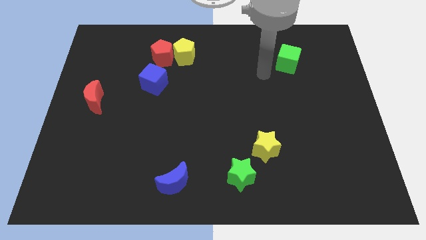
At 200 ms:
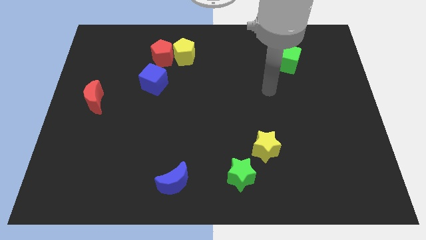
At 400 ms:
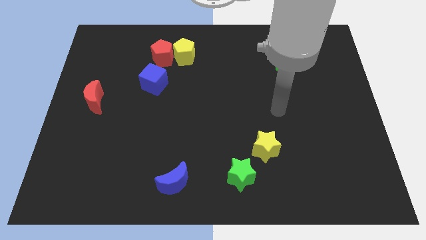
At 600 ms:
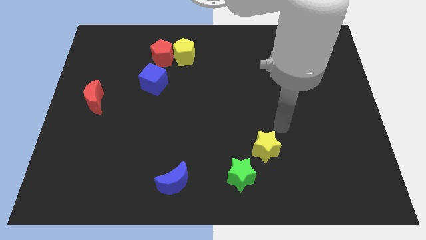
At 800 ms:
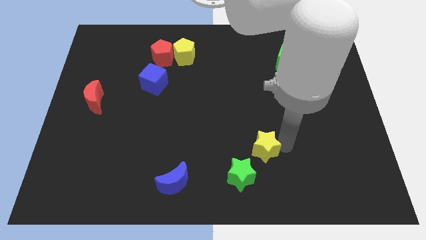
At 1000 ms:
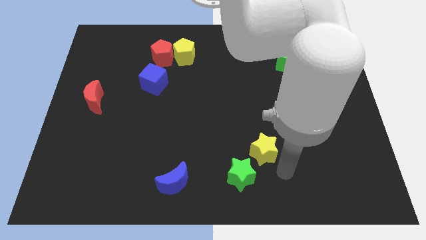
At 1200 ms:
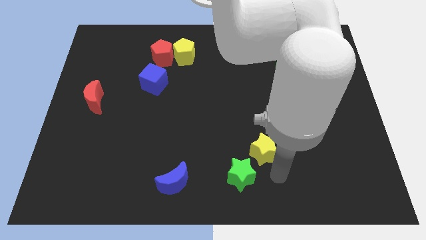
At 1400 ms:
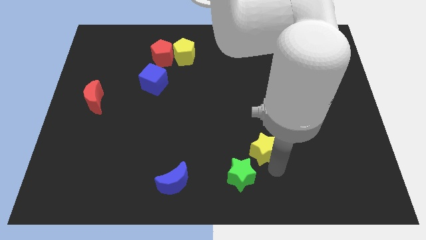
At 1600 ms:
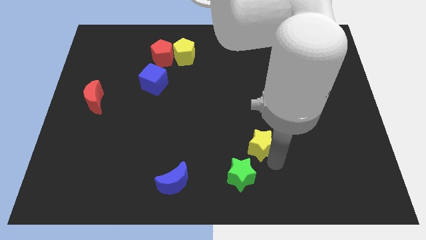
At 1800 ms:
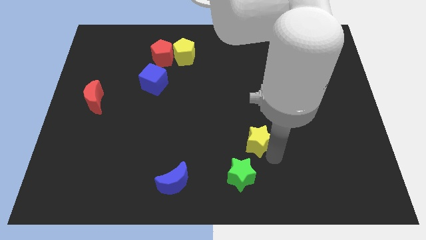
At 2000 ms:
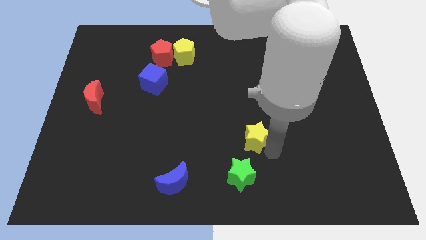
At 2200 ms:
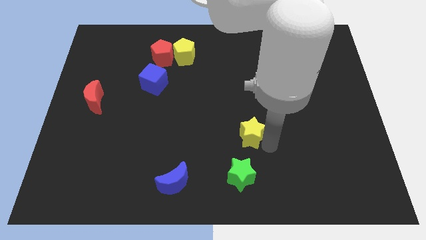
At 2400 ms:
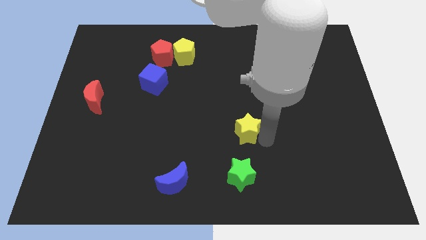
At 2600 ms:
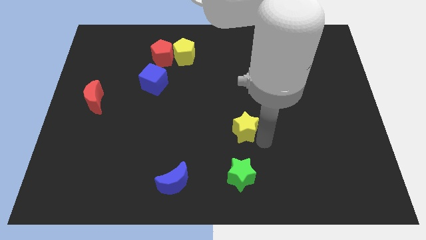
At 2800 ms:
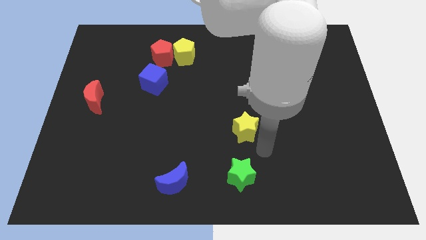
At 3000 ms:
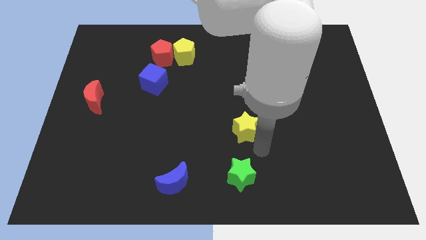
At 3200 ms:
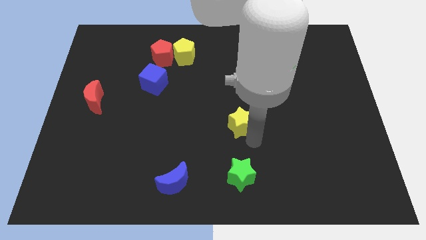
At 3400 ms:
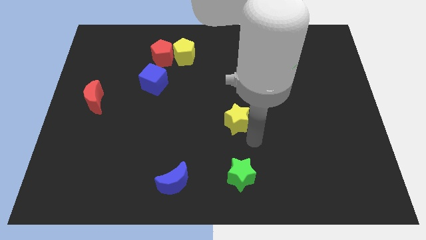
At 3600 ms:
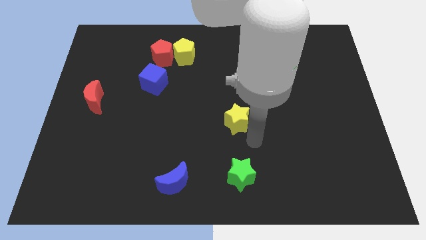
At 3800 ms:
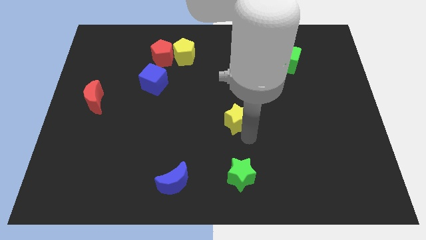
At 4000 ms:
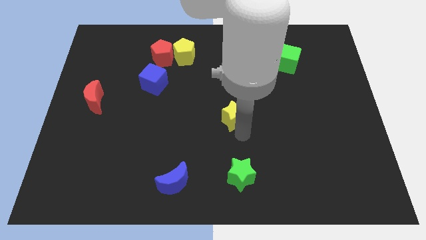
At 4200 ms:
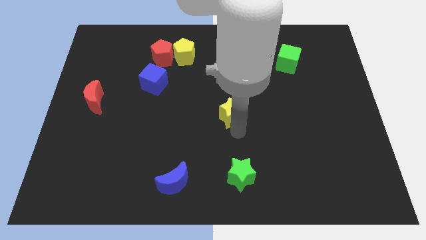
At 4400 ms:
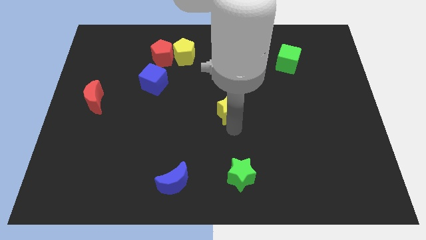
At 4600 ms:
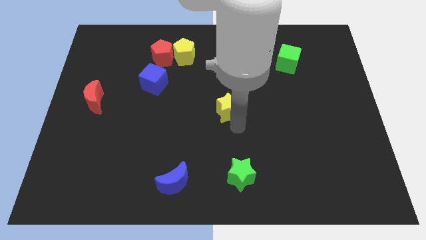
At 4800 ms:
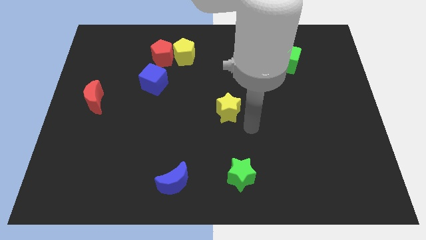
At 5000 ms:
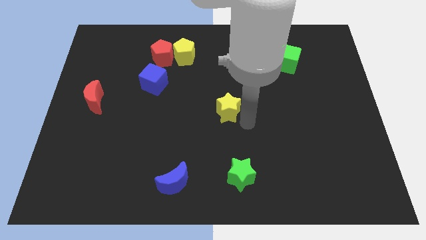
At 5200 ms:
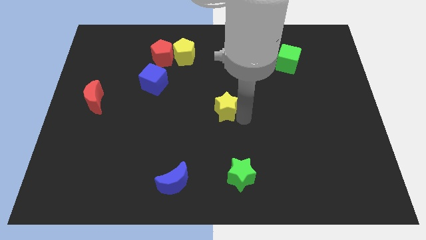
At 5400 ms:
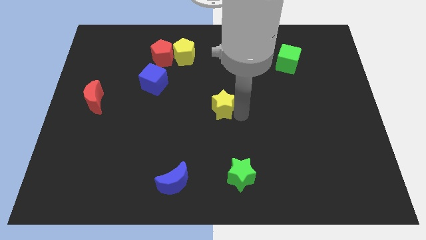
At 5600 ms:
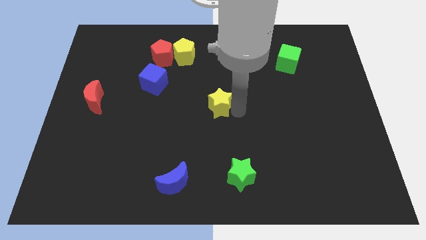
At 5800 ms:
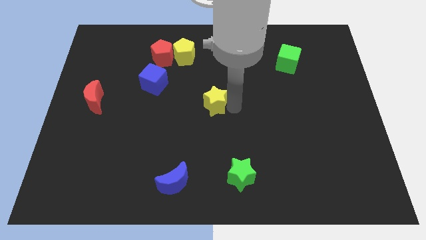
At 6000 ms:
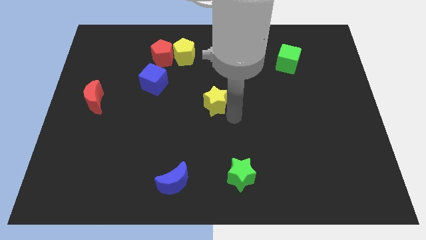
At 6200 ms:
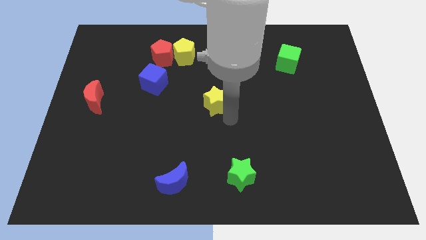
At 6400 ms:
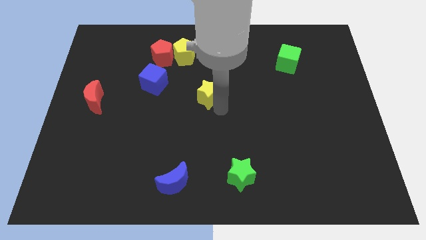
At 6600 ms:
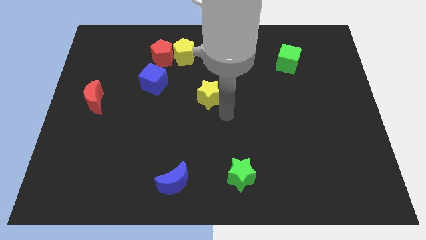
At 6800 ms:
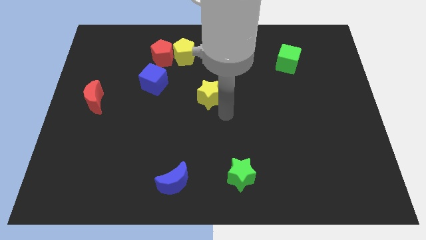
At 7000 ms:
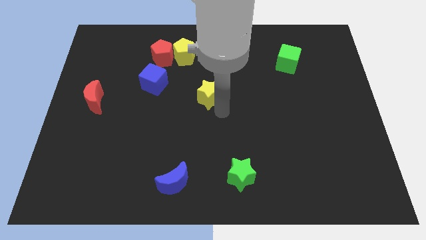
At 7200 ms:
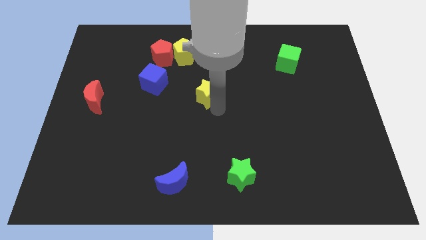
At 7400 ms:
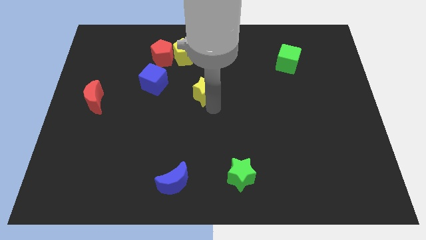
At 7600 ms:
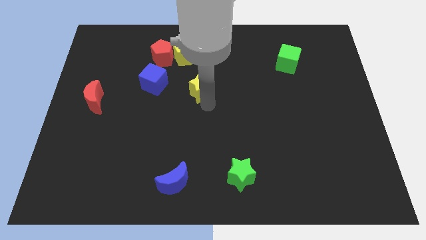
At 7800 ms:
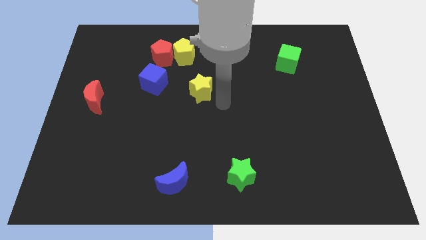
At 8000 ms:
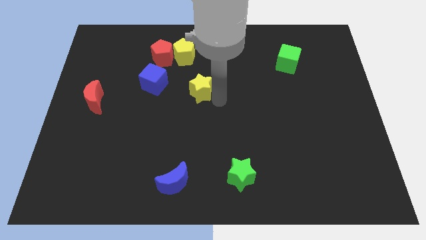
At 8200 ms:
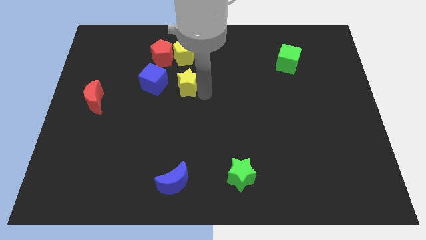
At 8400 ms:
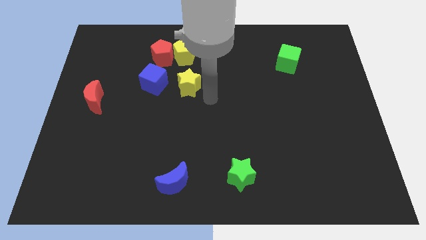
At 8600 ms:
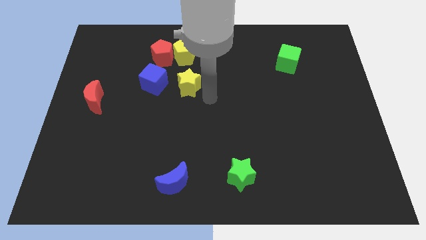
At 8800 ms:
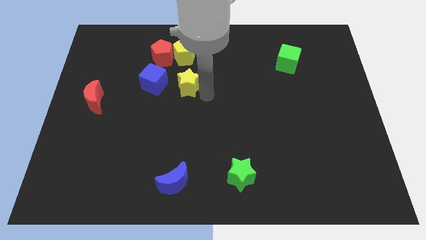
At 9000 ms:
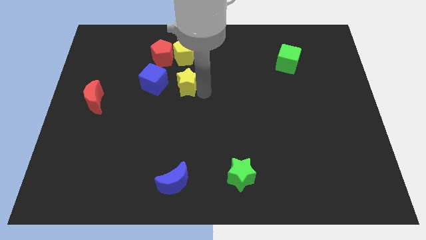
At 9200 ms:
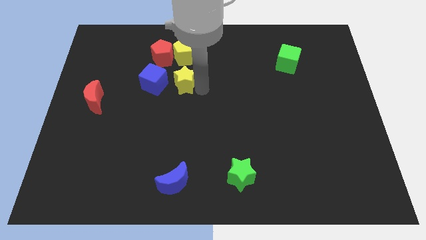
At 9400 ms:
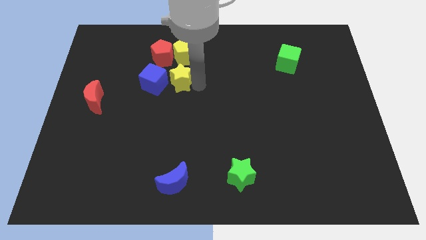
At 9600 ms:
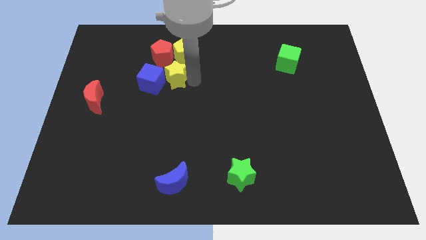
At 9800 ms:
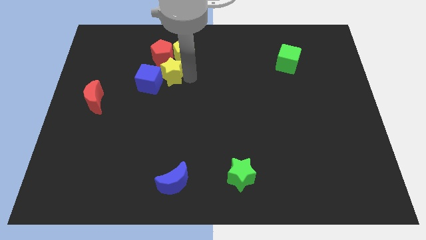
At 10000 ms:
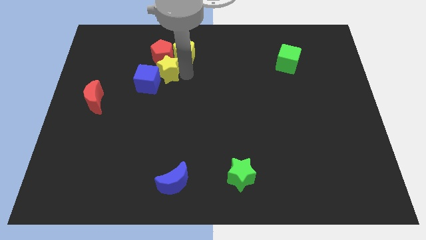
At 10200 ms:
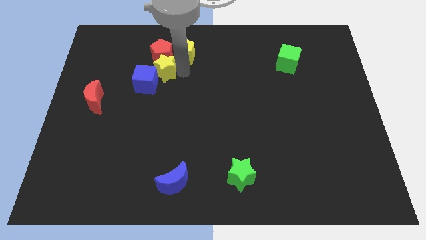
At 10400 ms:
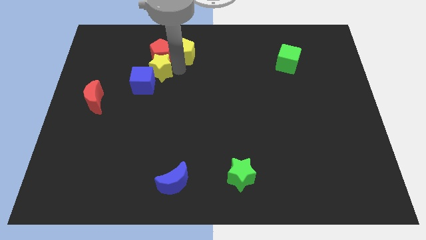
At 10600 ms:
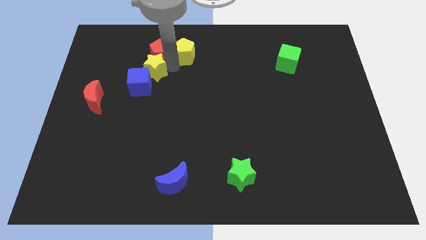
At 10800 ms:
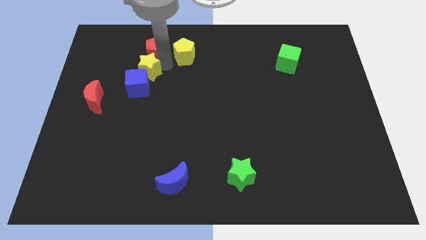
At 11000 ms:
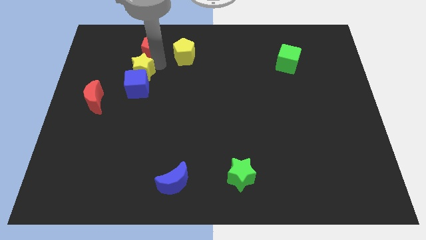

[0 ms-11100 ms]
slide the yellow star to the top left side of the blue cube

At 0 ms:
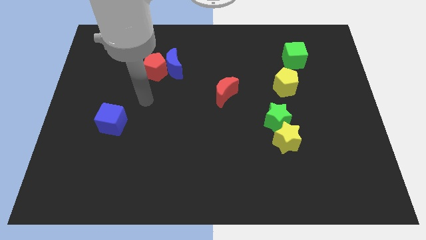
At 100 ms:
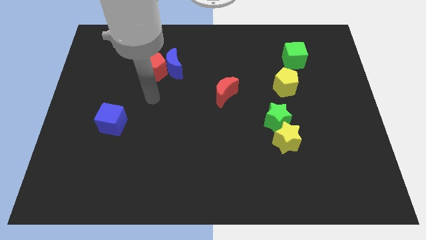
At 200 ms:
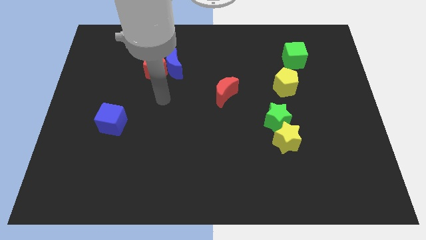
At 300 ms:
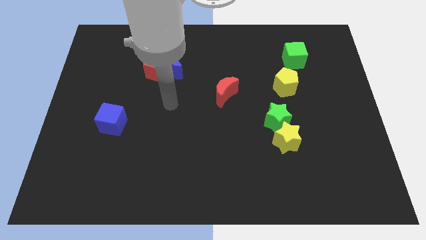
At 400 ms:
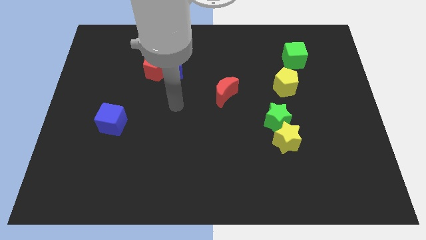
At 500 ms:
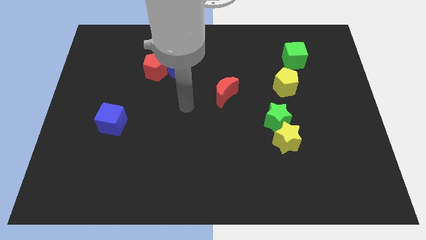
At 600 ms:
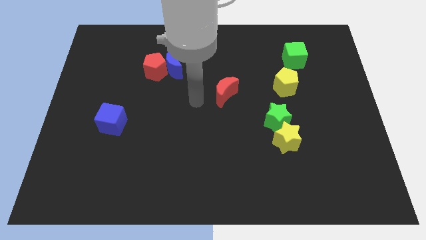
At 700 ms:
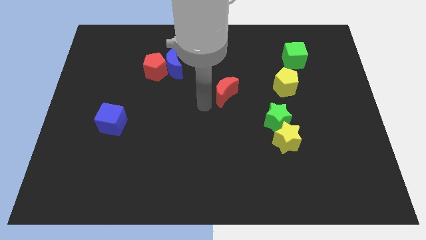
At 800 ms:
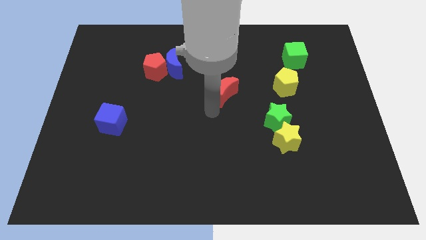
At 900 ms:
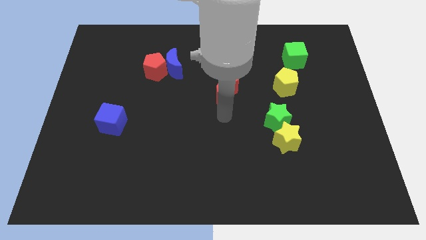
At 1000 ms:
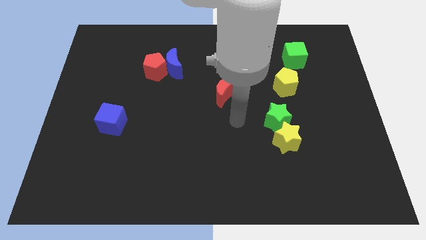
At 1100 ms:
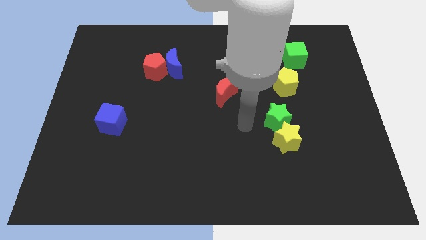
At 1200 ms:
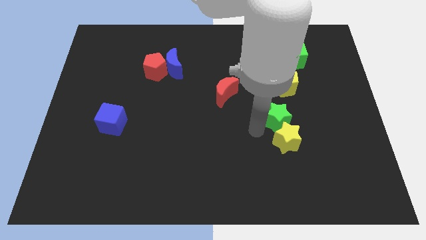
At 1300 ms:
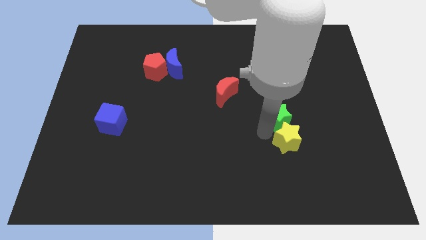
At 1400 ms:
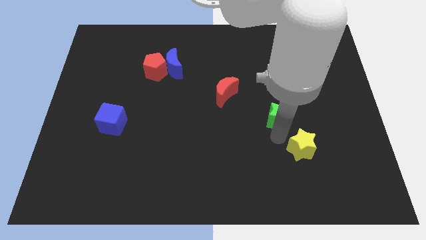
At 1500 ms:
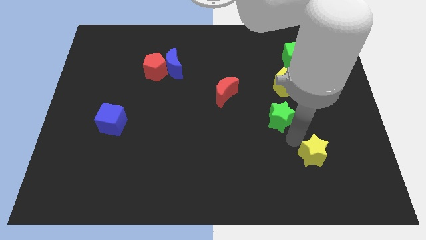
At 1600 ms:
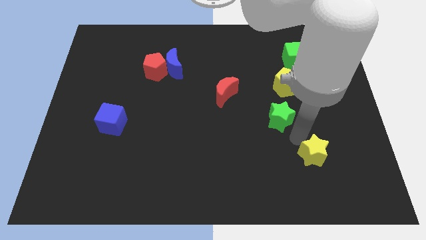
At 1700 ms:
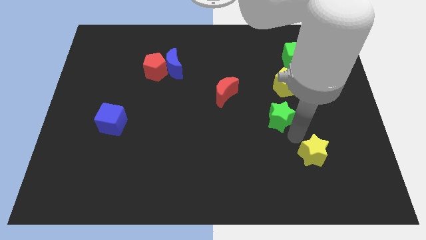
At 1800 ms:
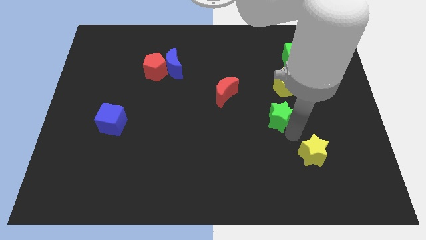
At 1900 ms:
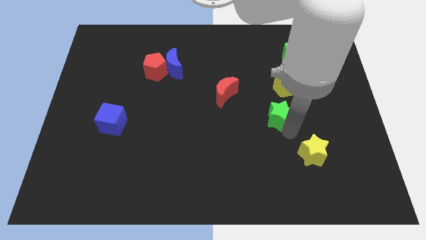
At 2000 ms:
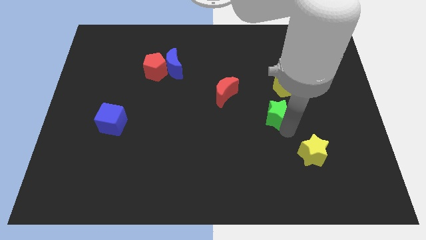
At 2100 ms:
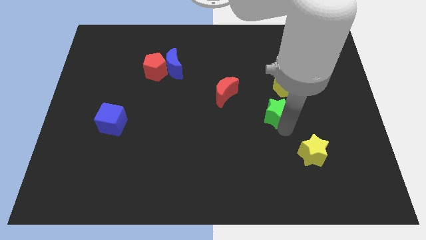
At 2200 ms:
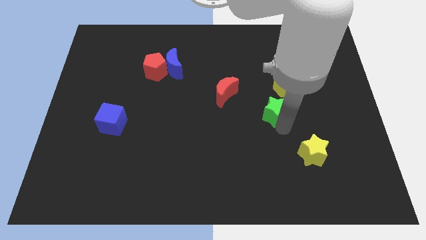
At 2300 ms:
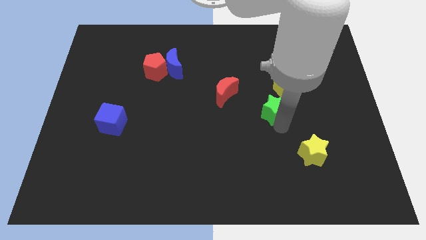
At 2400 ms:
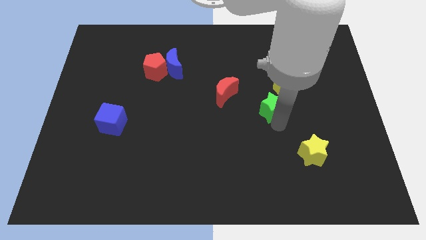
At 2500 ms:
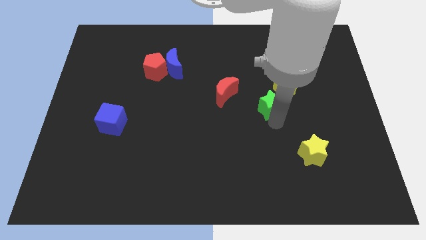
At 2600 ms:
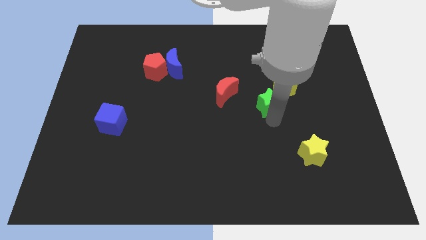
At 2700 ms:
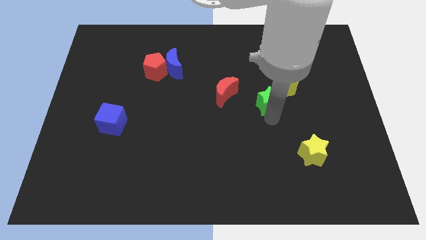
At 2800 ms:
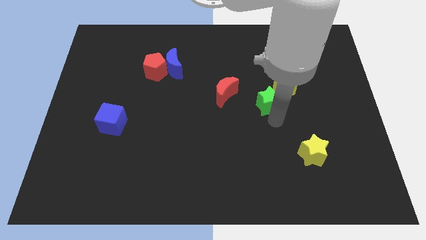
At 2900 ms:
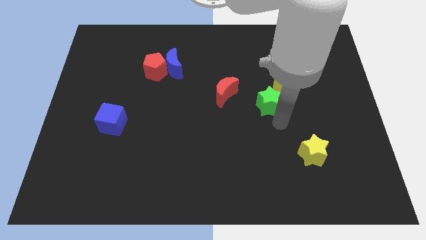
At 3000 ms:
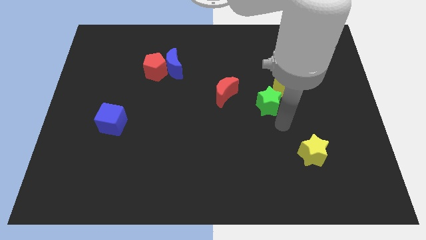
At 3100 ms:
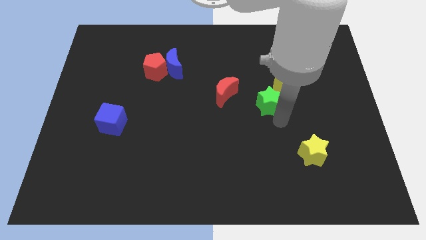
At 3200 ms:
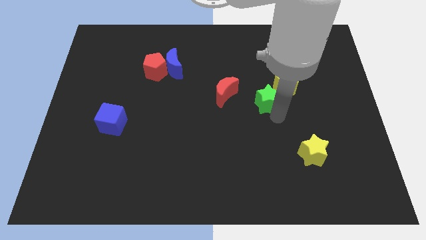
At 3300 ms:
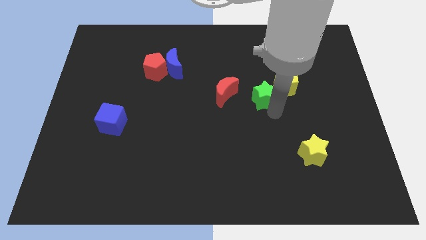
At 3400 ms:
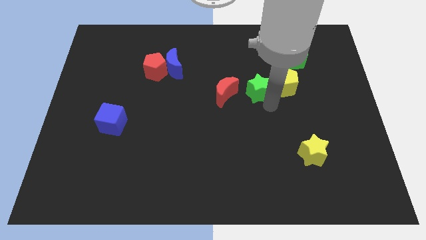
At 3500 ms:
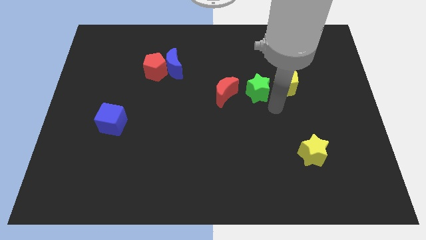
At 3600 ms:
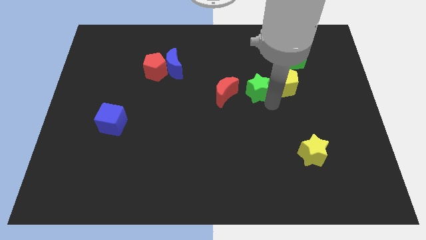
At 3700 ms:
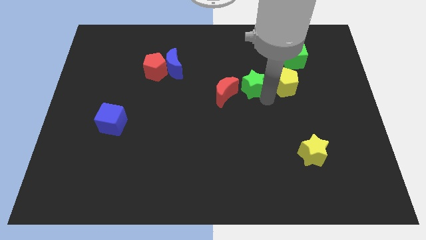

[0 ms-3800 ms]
move the green star to the top right of the red moon
